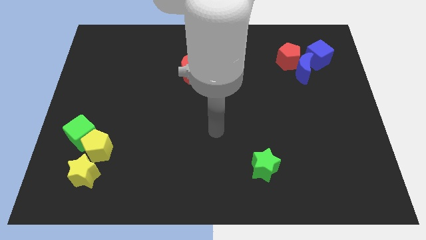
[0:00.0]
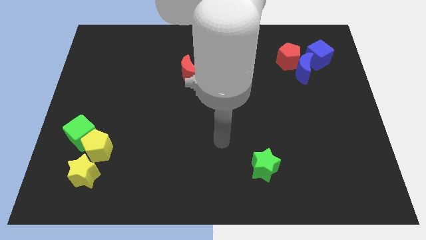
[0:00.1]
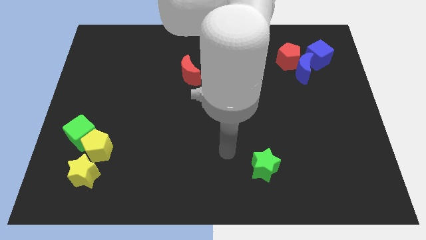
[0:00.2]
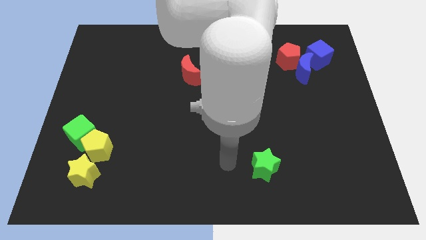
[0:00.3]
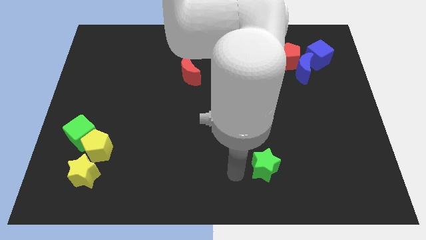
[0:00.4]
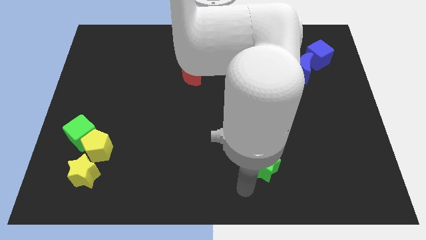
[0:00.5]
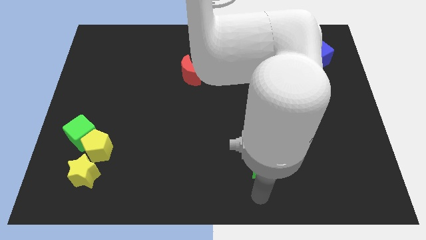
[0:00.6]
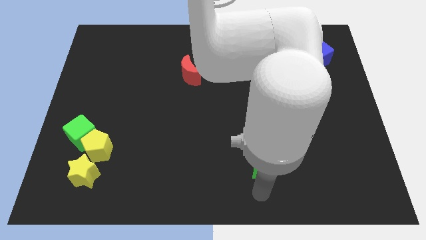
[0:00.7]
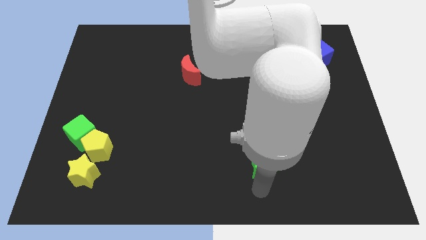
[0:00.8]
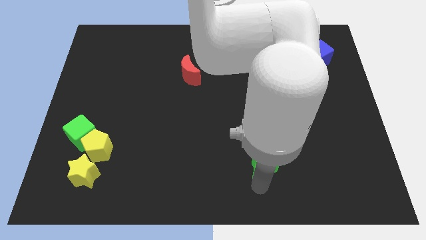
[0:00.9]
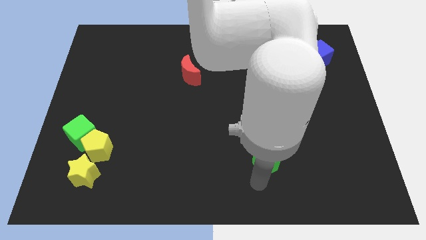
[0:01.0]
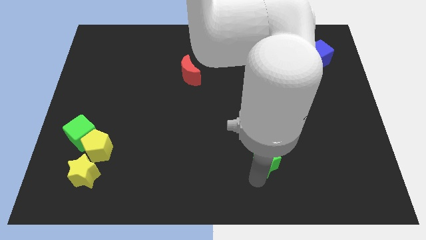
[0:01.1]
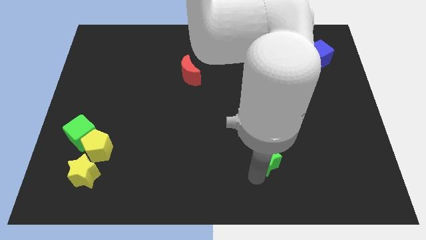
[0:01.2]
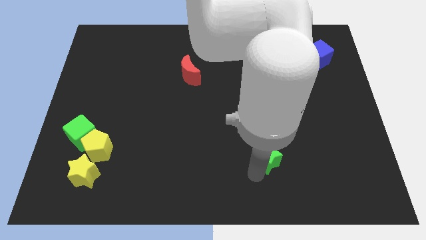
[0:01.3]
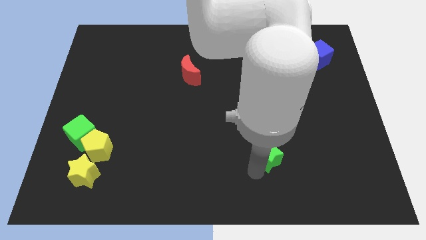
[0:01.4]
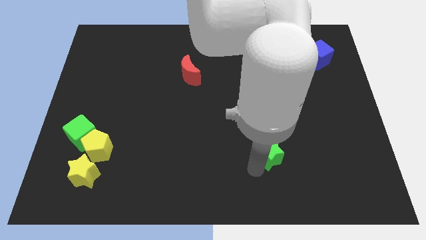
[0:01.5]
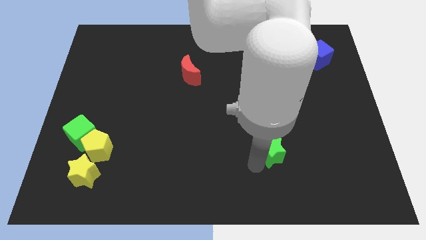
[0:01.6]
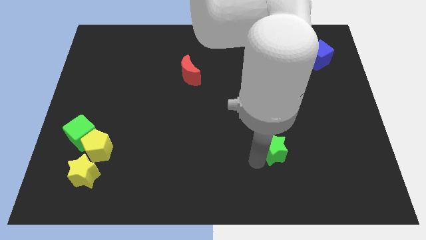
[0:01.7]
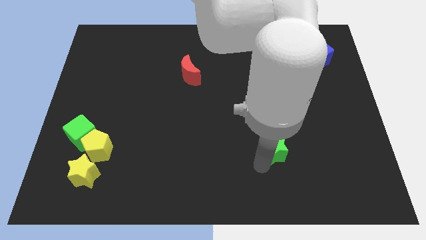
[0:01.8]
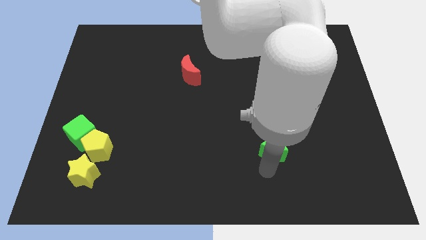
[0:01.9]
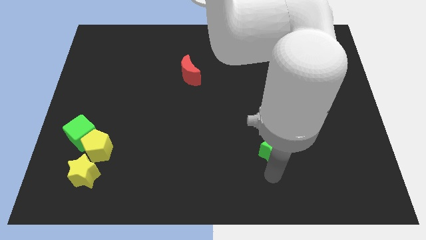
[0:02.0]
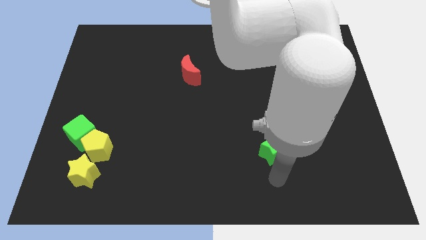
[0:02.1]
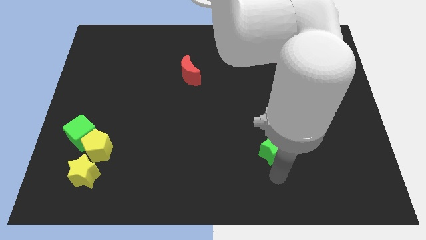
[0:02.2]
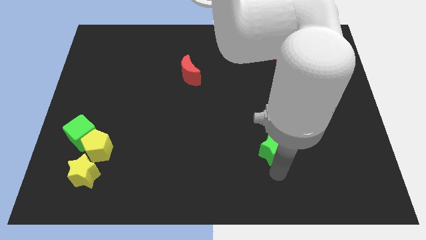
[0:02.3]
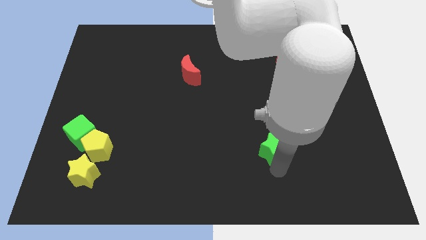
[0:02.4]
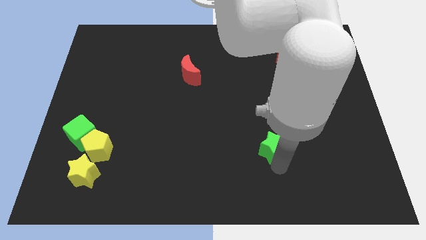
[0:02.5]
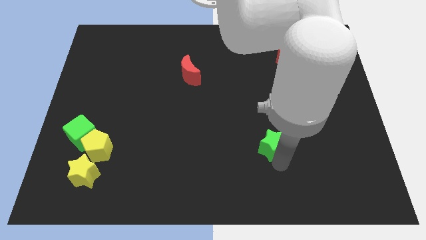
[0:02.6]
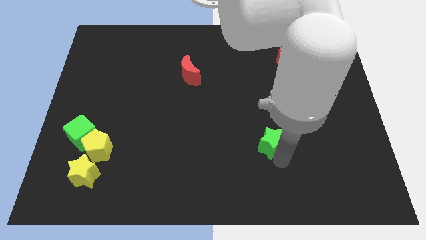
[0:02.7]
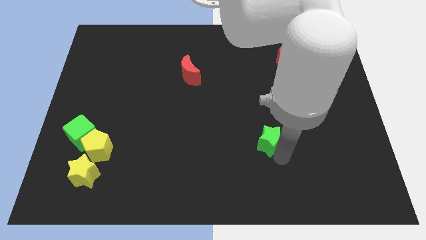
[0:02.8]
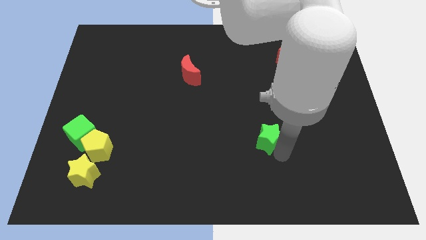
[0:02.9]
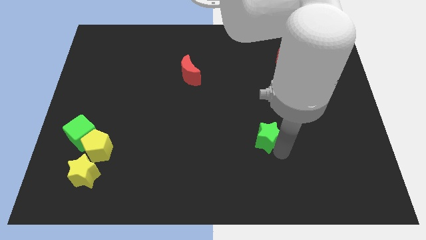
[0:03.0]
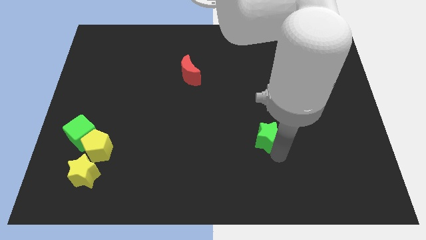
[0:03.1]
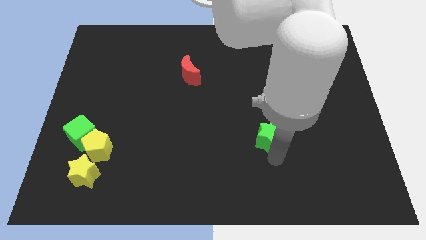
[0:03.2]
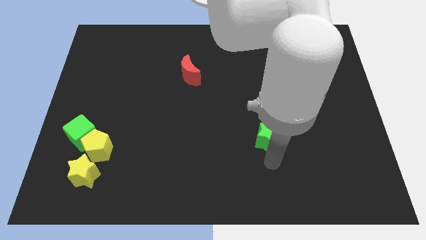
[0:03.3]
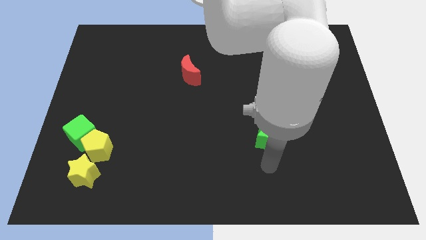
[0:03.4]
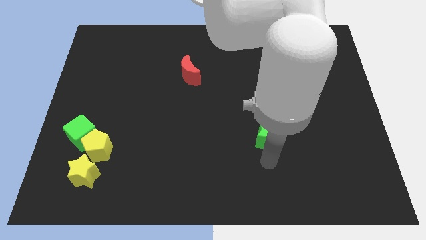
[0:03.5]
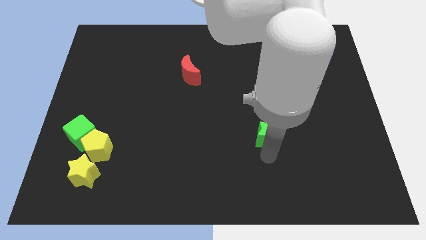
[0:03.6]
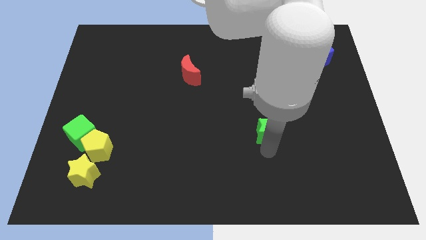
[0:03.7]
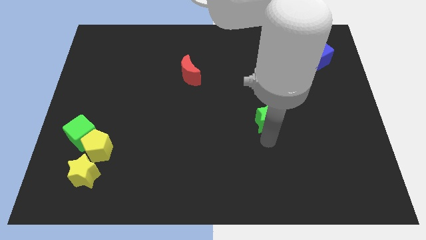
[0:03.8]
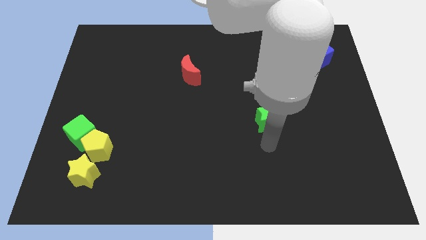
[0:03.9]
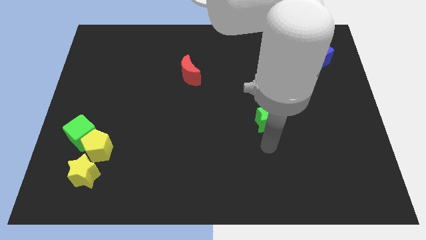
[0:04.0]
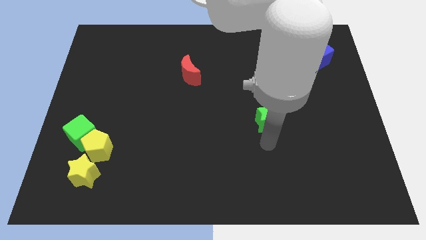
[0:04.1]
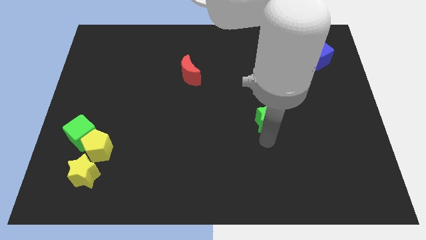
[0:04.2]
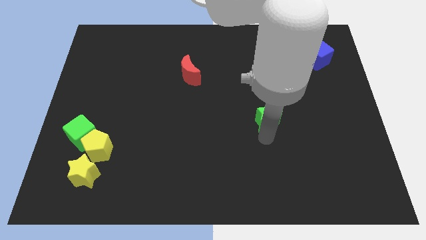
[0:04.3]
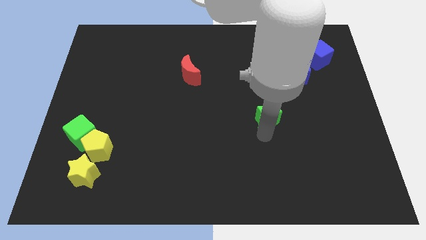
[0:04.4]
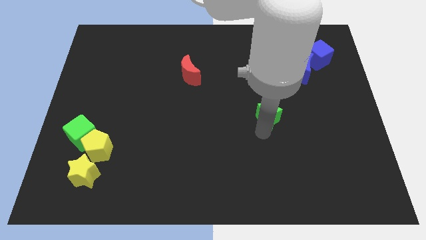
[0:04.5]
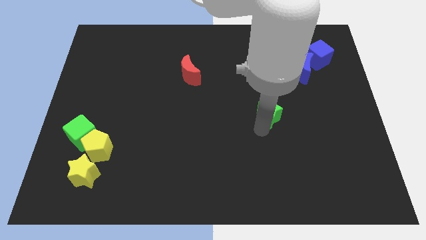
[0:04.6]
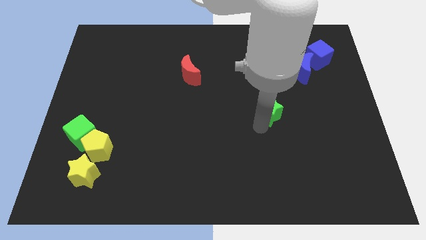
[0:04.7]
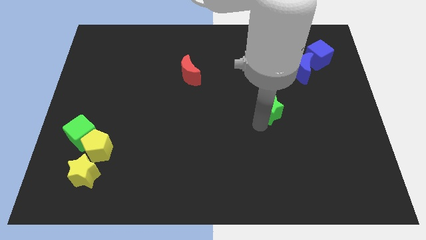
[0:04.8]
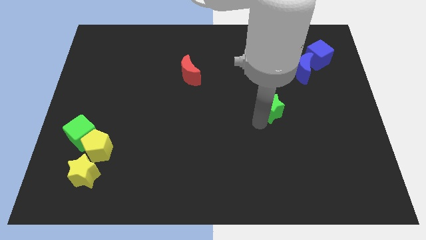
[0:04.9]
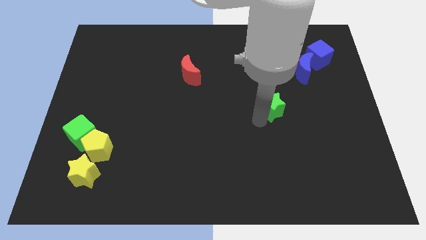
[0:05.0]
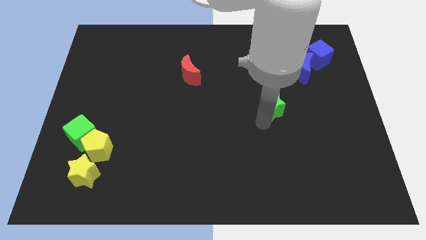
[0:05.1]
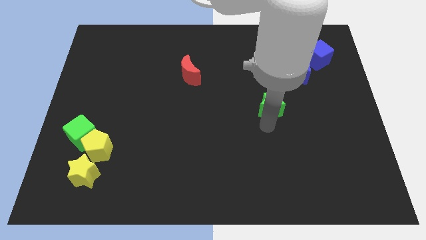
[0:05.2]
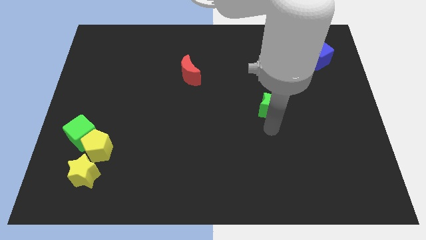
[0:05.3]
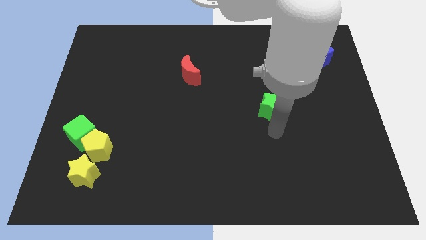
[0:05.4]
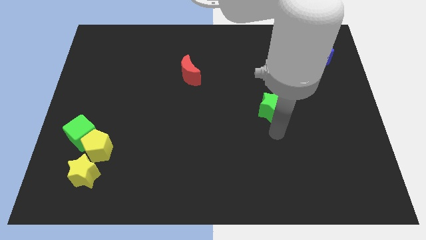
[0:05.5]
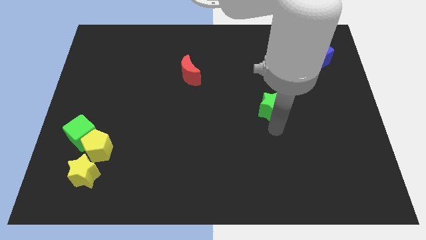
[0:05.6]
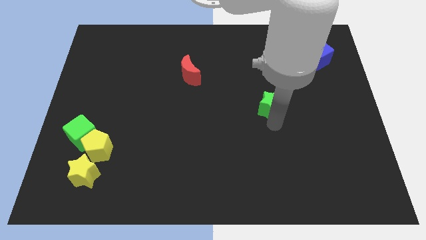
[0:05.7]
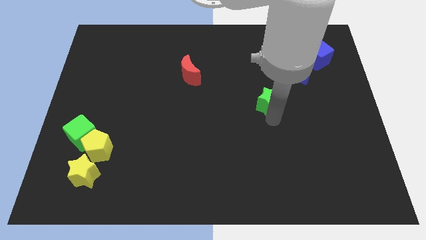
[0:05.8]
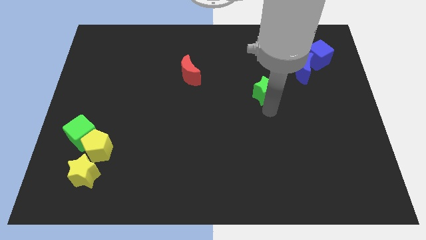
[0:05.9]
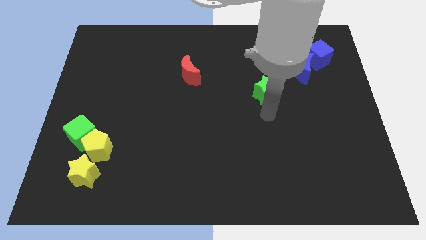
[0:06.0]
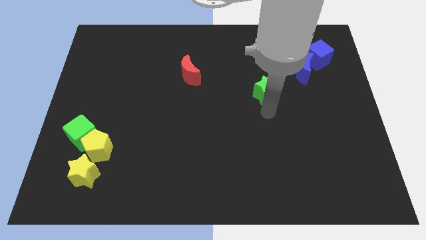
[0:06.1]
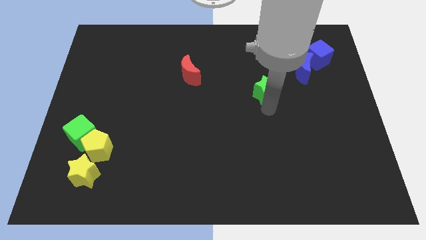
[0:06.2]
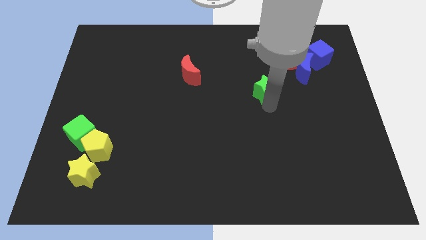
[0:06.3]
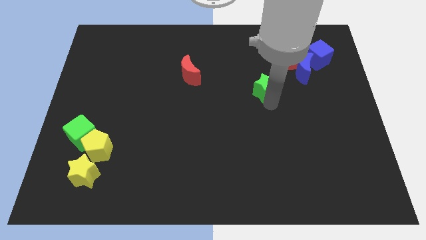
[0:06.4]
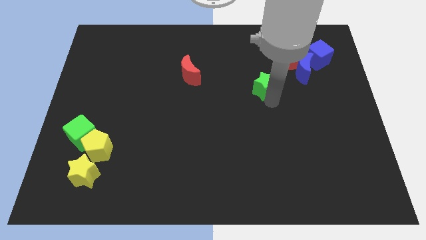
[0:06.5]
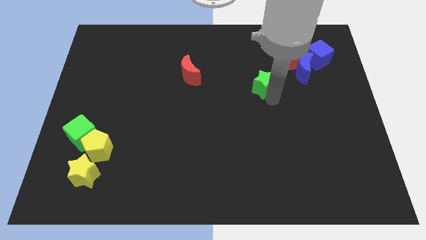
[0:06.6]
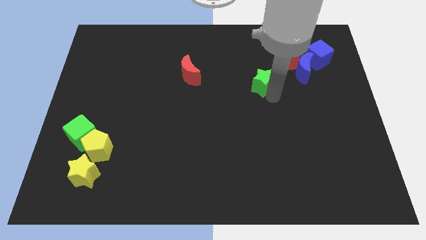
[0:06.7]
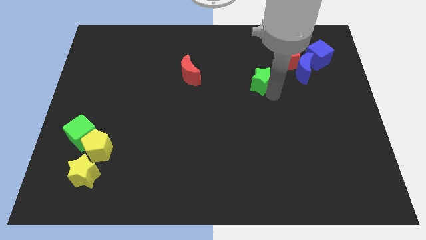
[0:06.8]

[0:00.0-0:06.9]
move the green star left of the blue moon
